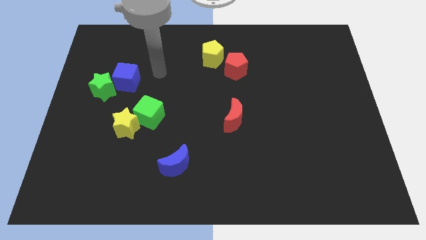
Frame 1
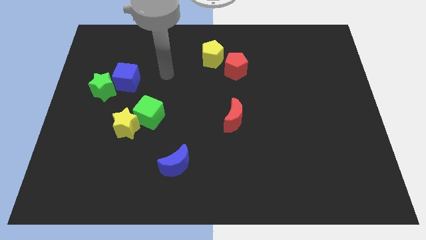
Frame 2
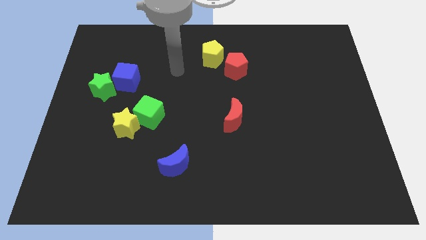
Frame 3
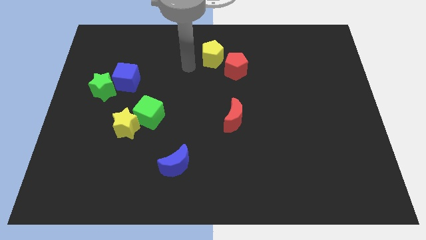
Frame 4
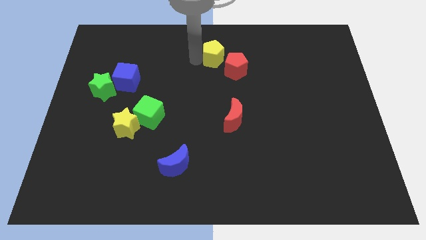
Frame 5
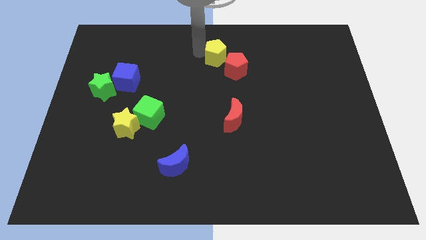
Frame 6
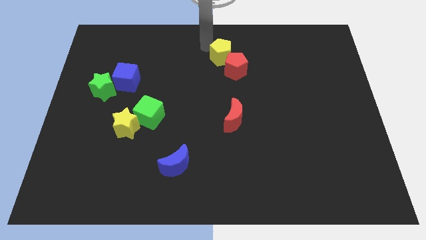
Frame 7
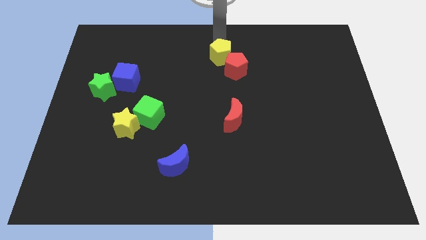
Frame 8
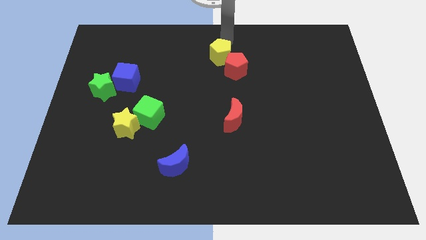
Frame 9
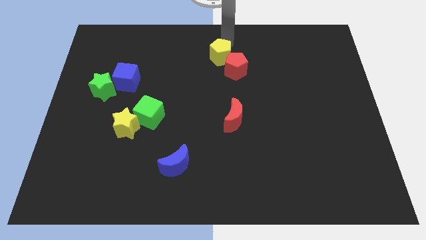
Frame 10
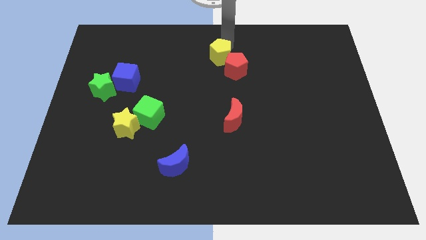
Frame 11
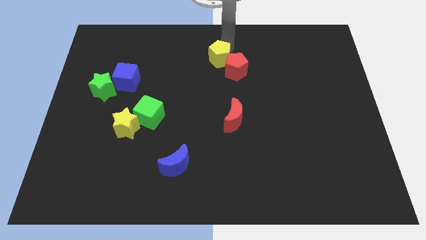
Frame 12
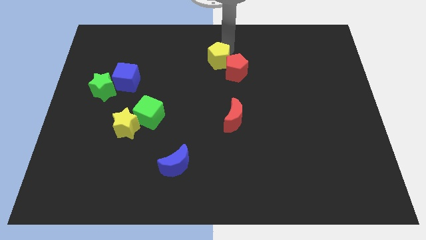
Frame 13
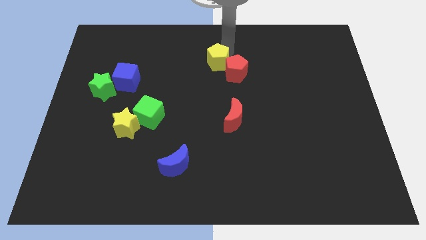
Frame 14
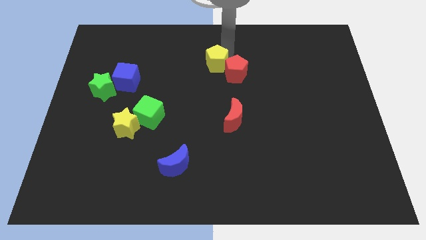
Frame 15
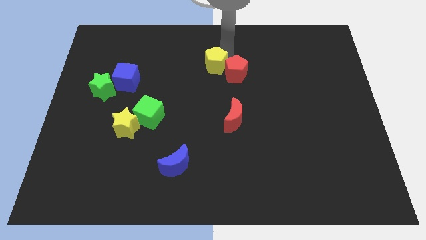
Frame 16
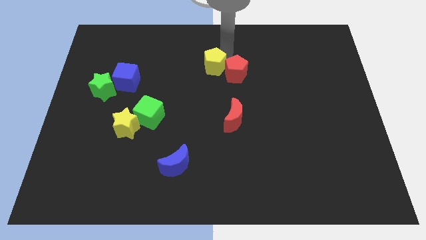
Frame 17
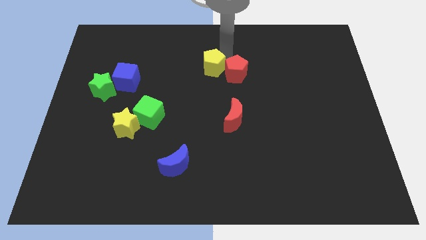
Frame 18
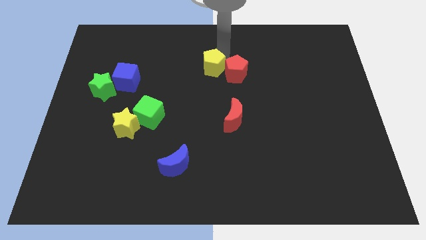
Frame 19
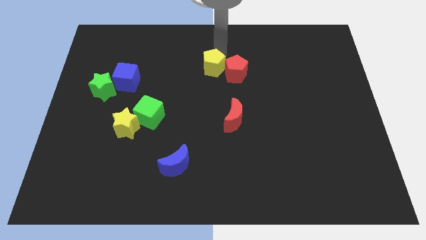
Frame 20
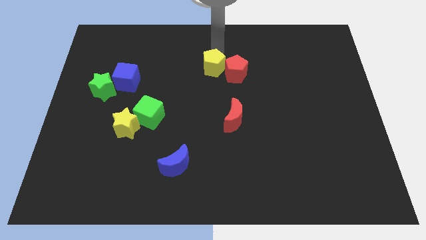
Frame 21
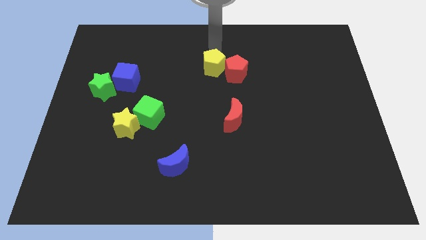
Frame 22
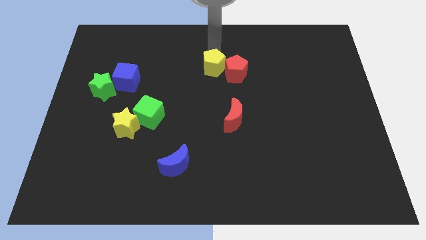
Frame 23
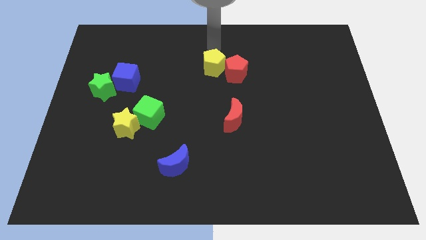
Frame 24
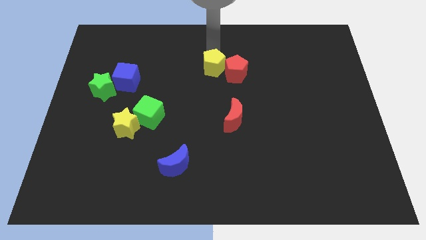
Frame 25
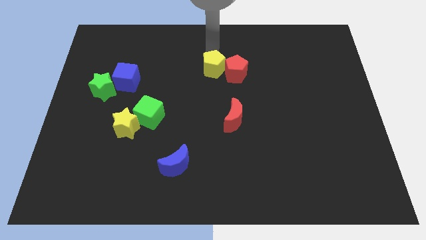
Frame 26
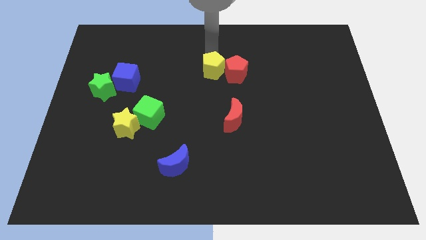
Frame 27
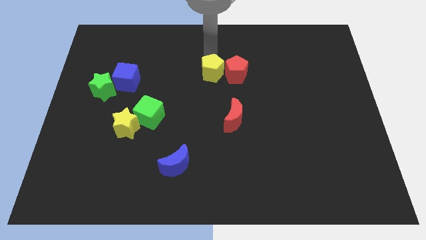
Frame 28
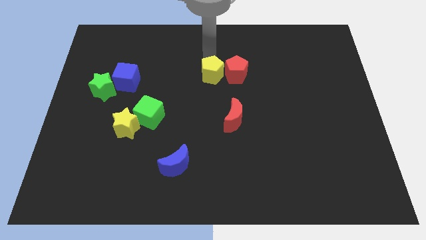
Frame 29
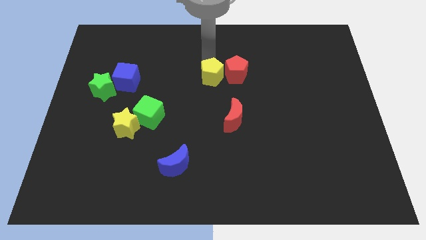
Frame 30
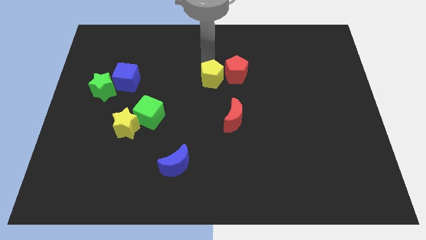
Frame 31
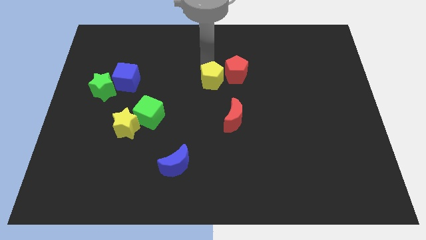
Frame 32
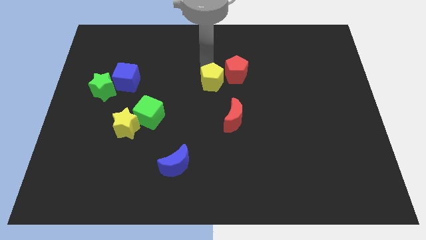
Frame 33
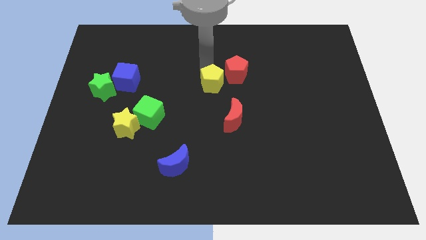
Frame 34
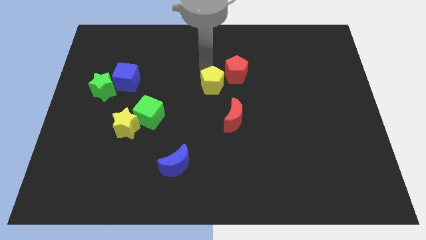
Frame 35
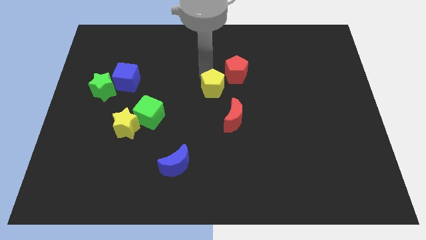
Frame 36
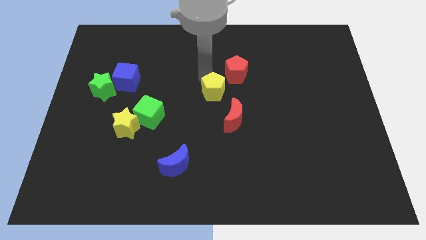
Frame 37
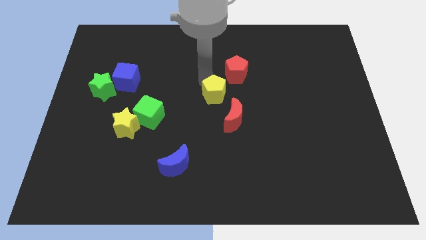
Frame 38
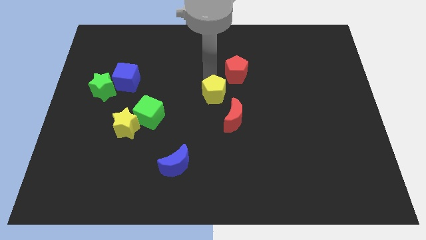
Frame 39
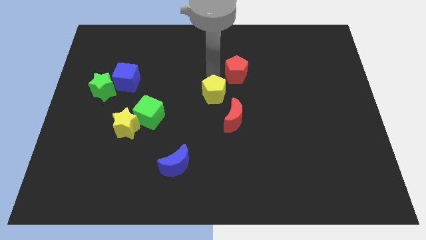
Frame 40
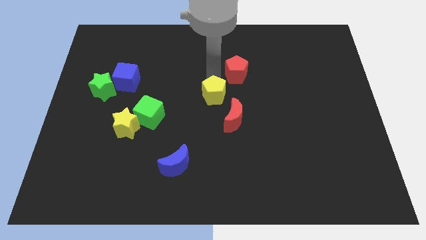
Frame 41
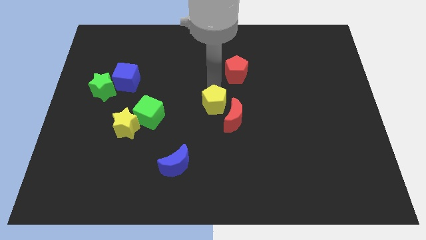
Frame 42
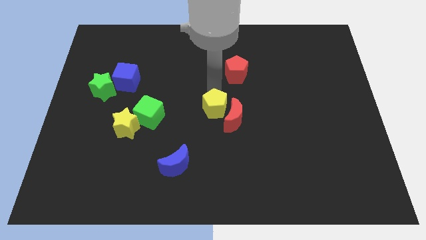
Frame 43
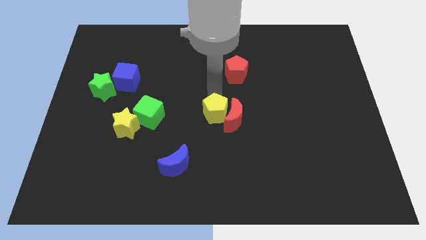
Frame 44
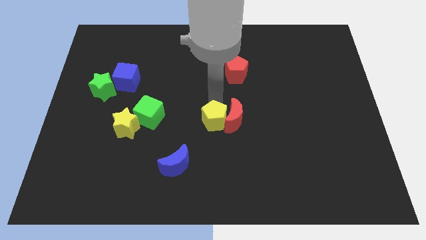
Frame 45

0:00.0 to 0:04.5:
slide the yellow pentagon down

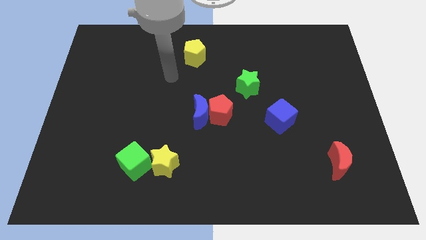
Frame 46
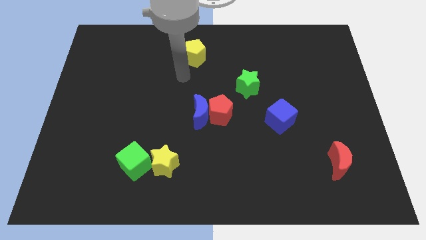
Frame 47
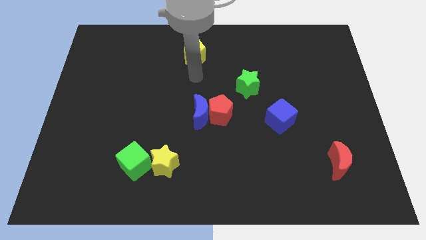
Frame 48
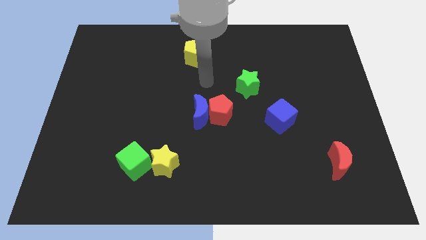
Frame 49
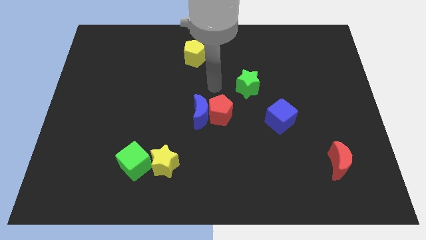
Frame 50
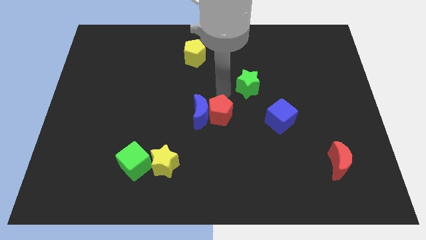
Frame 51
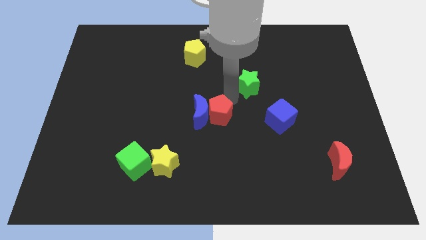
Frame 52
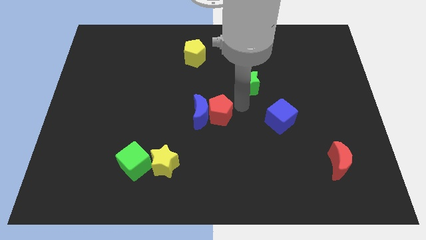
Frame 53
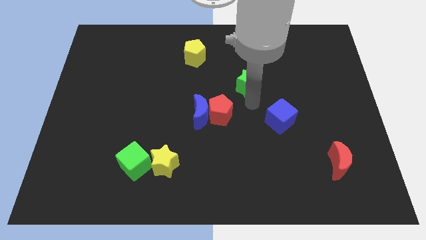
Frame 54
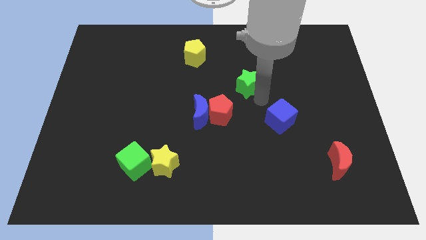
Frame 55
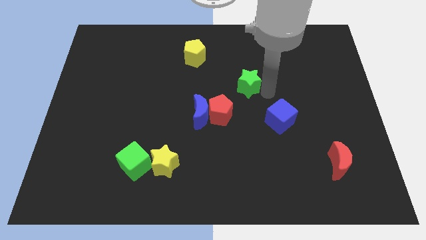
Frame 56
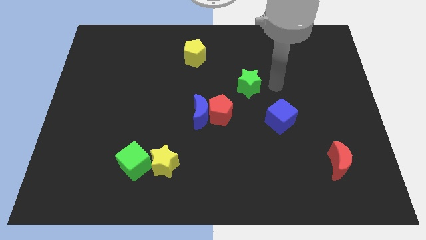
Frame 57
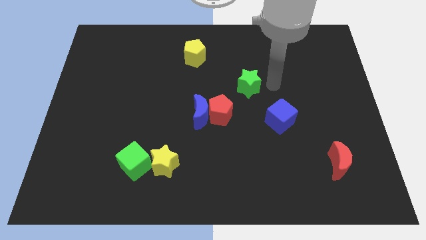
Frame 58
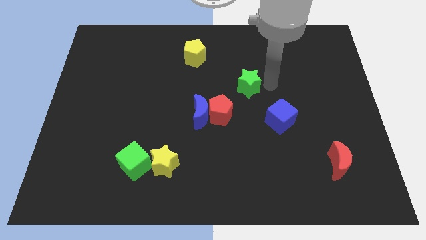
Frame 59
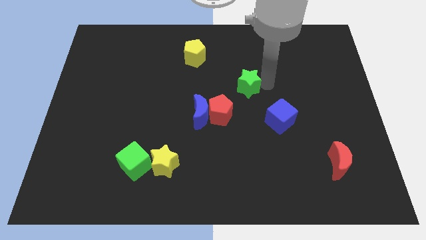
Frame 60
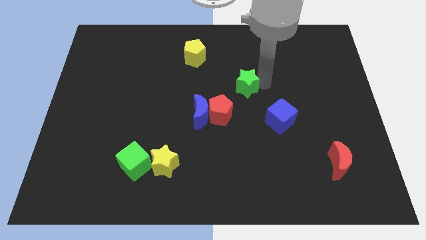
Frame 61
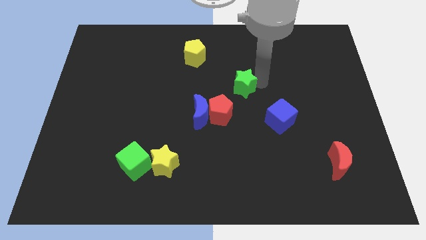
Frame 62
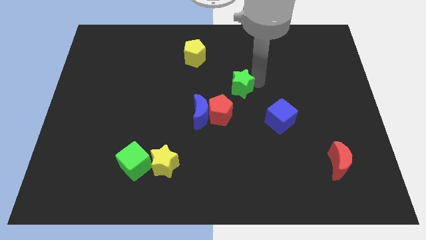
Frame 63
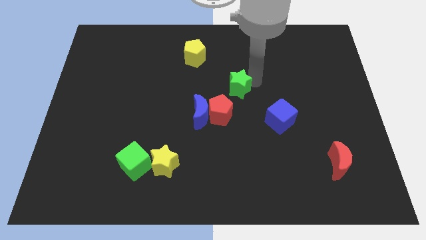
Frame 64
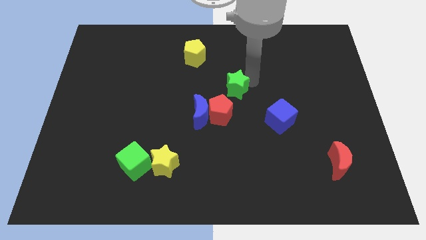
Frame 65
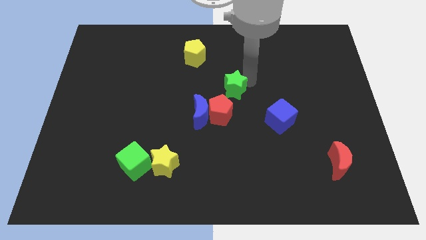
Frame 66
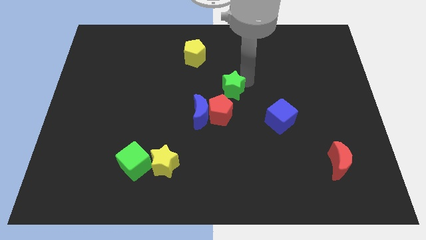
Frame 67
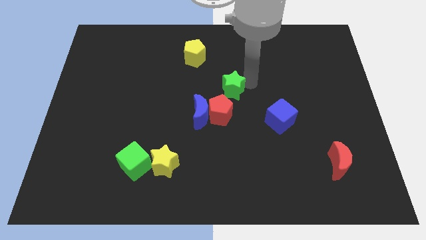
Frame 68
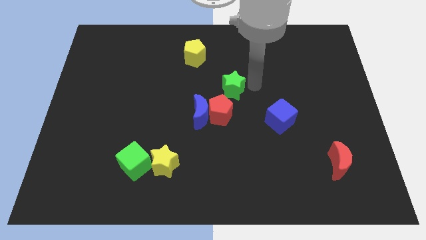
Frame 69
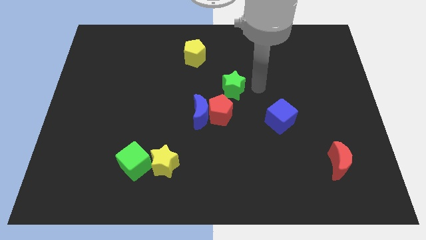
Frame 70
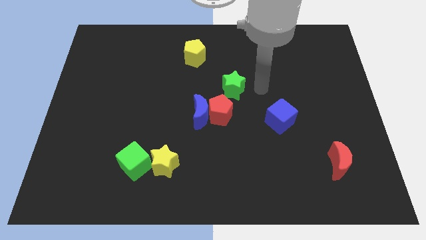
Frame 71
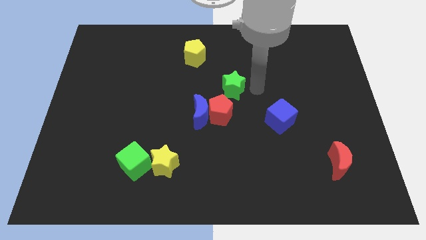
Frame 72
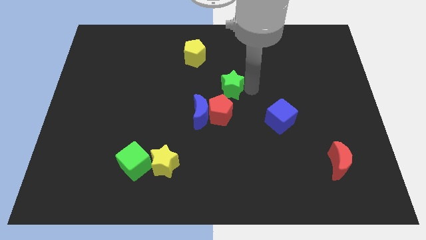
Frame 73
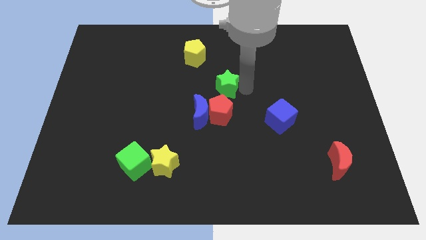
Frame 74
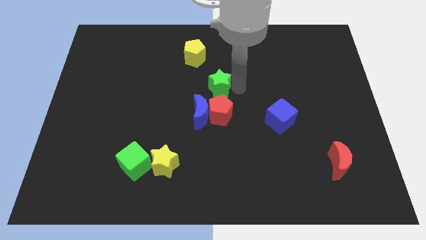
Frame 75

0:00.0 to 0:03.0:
slightly slide the green star left

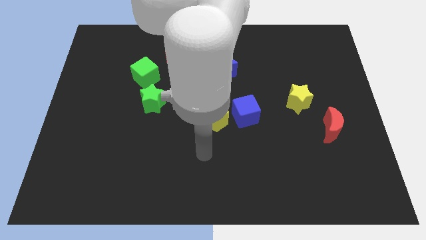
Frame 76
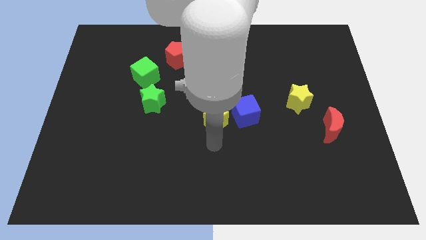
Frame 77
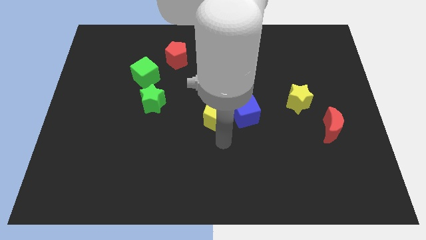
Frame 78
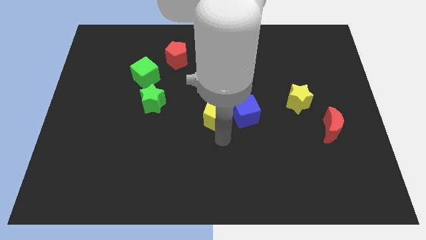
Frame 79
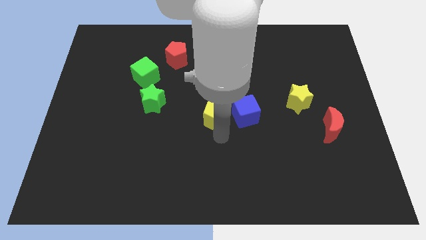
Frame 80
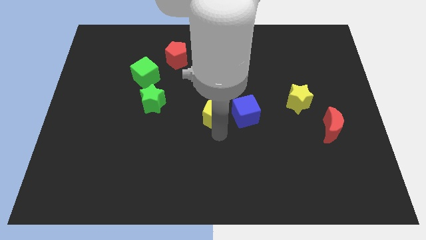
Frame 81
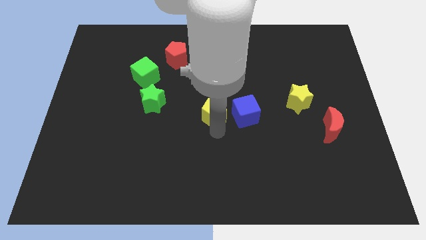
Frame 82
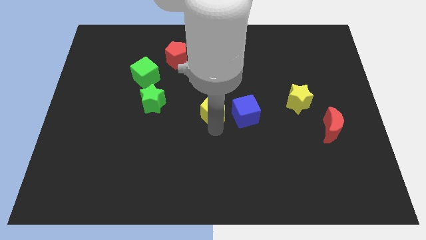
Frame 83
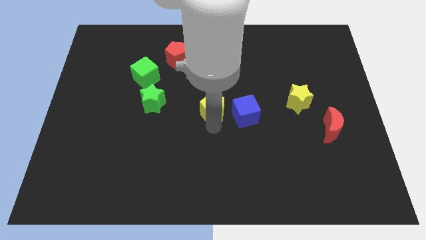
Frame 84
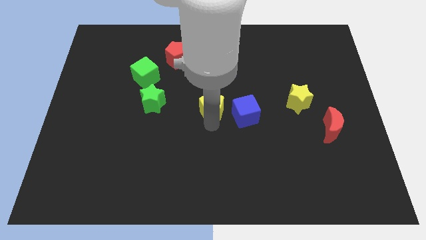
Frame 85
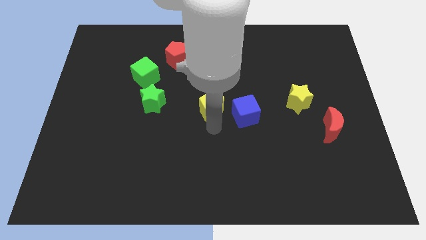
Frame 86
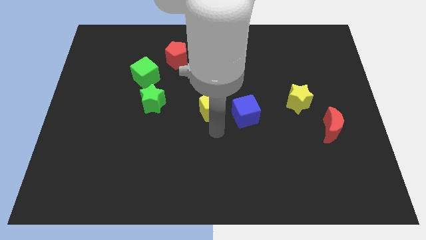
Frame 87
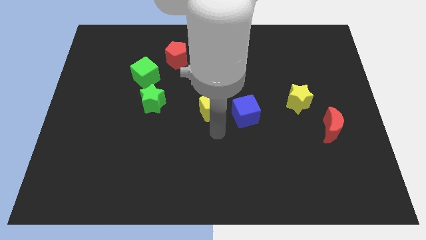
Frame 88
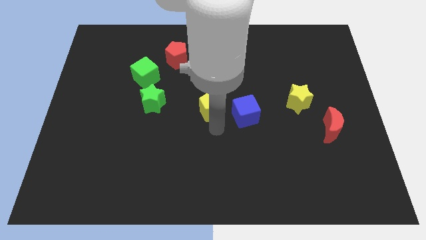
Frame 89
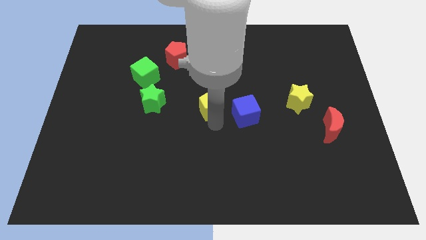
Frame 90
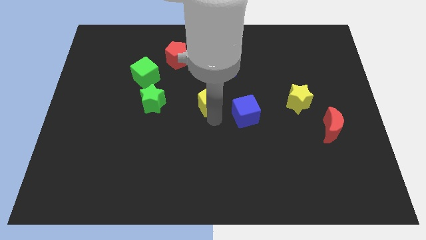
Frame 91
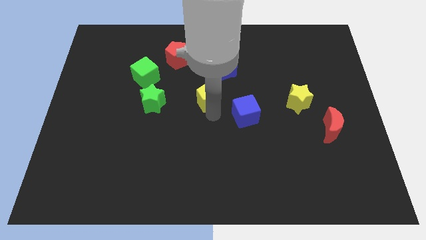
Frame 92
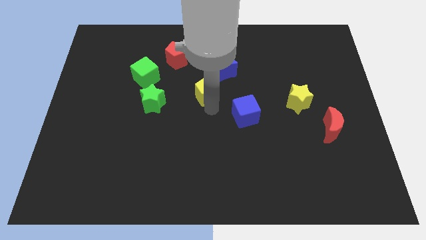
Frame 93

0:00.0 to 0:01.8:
move the yellow pentagon slightly up
